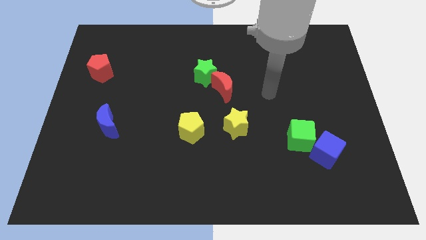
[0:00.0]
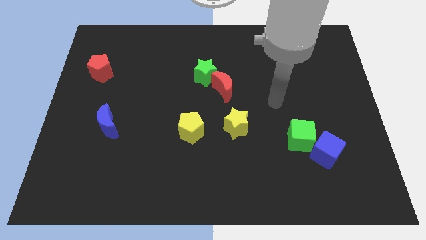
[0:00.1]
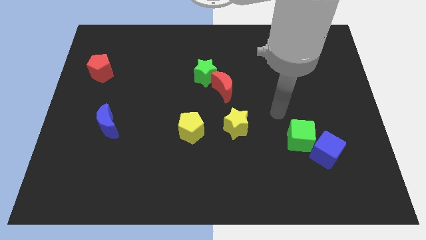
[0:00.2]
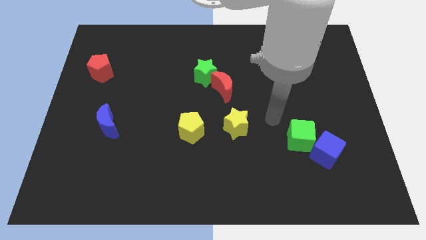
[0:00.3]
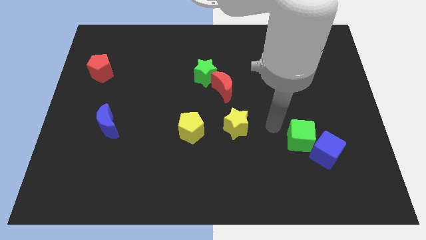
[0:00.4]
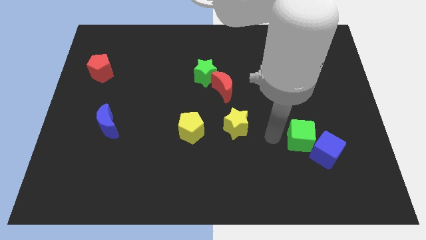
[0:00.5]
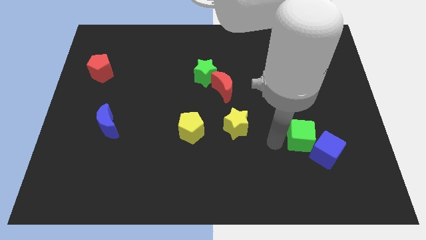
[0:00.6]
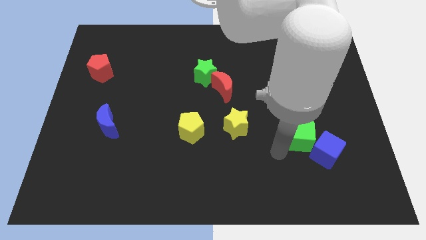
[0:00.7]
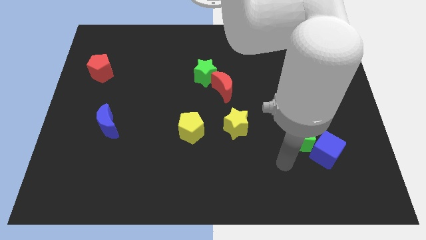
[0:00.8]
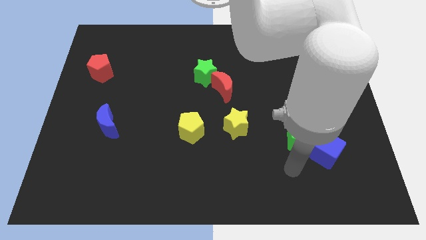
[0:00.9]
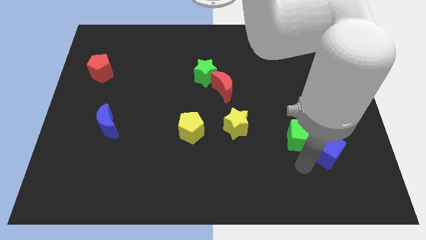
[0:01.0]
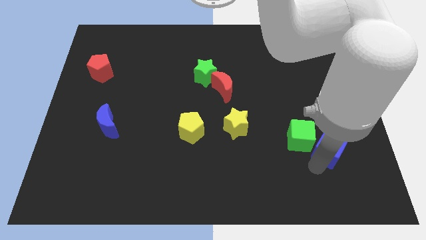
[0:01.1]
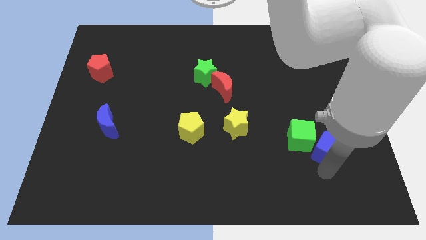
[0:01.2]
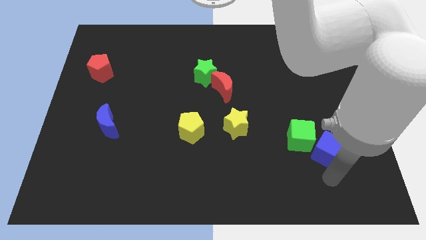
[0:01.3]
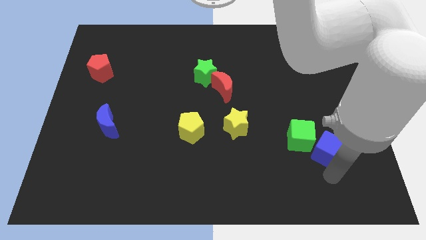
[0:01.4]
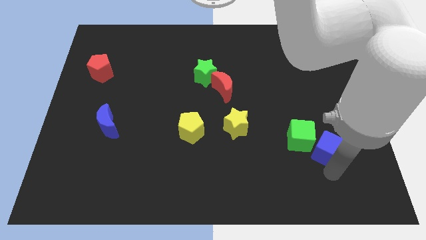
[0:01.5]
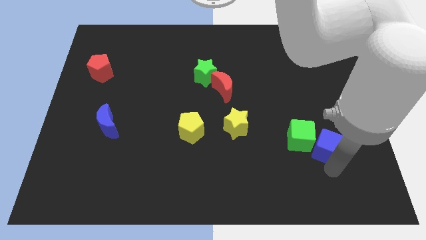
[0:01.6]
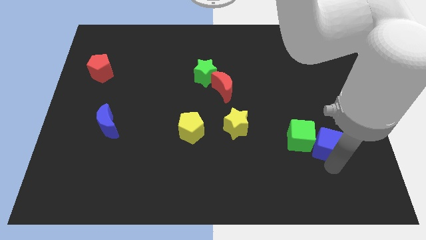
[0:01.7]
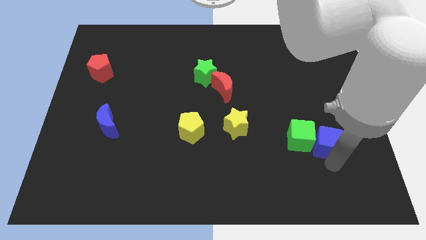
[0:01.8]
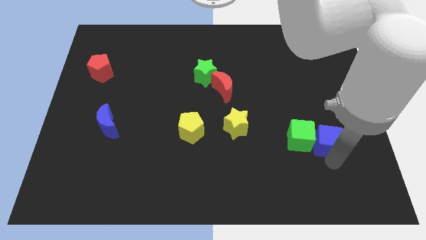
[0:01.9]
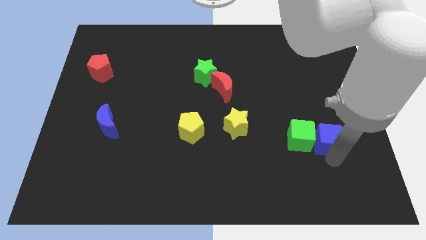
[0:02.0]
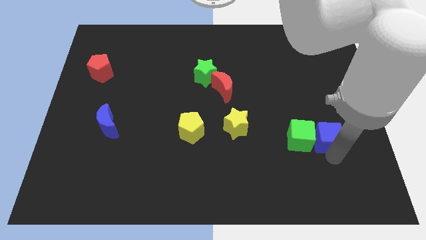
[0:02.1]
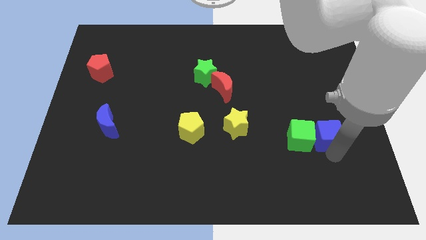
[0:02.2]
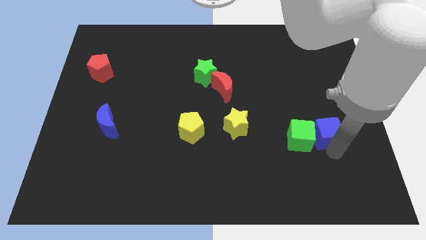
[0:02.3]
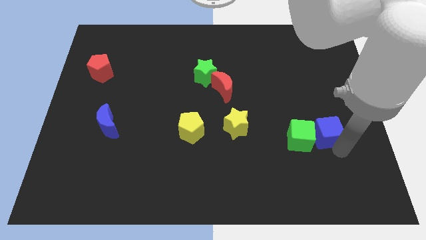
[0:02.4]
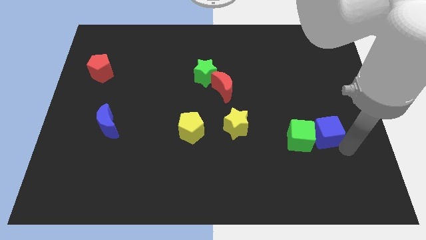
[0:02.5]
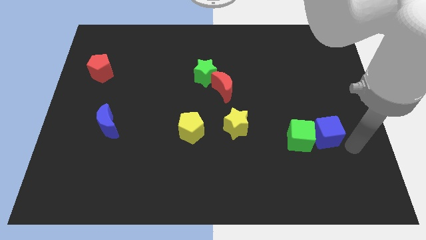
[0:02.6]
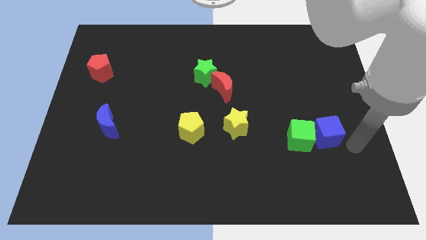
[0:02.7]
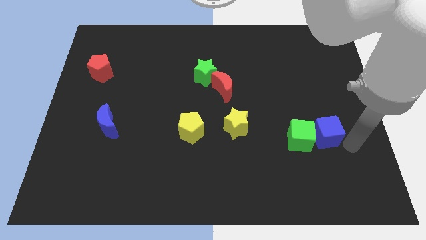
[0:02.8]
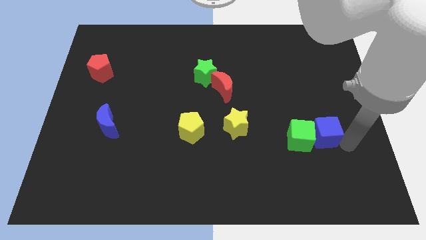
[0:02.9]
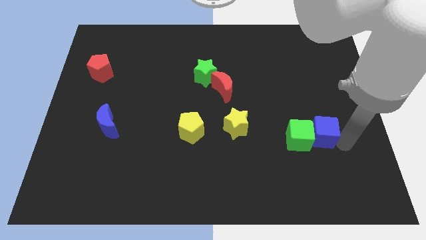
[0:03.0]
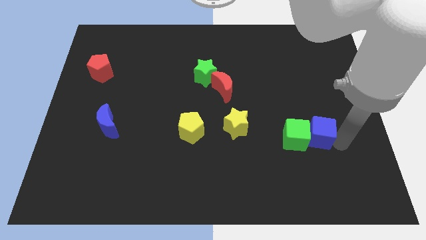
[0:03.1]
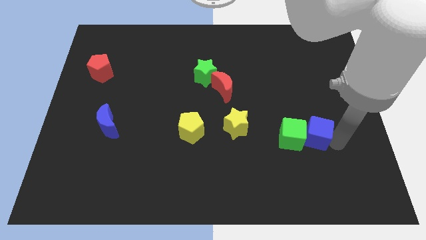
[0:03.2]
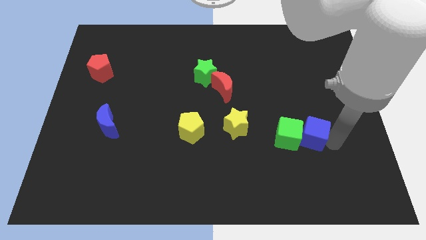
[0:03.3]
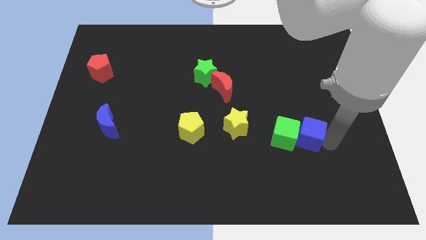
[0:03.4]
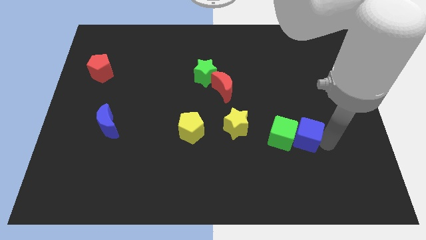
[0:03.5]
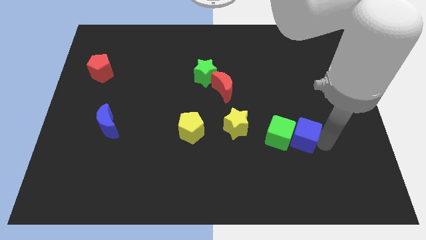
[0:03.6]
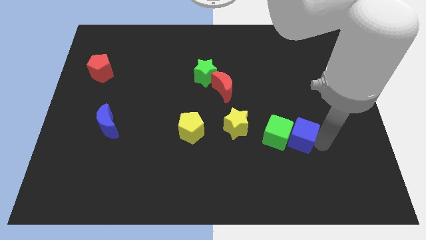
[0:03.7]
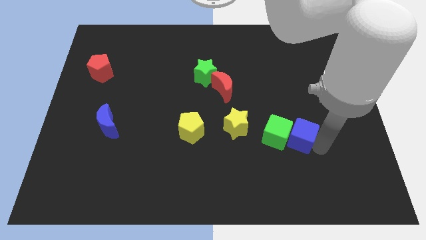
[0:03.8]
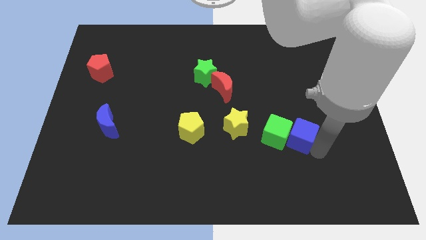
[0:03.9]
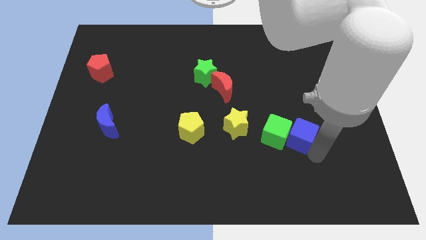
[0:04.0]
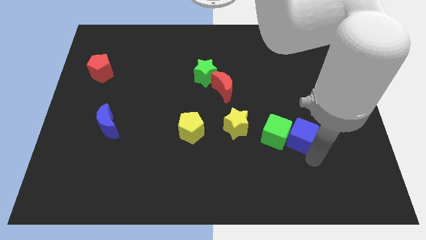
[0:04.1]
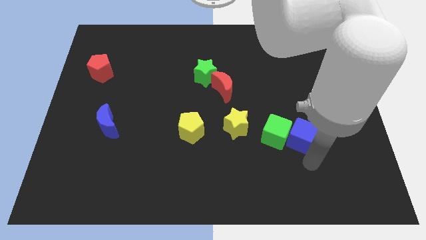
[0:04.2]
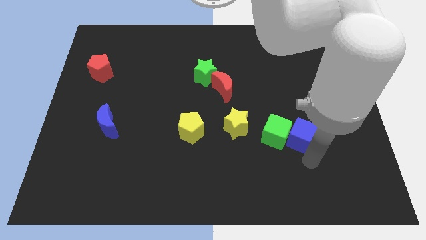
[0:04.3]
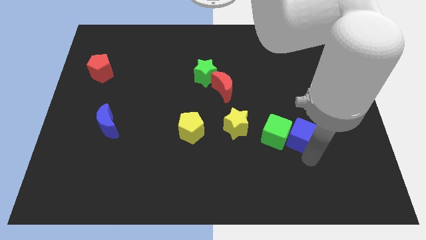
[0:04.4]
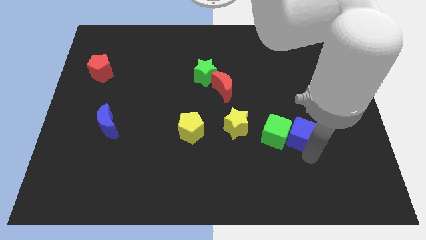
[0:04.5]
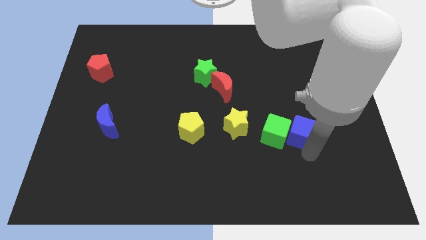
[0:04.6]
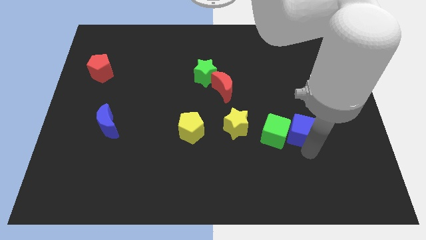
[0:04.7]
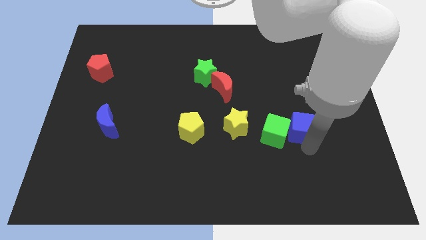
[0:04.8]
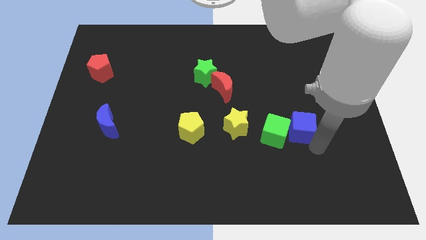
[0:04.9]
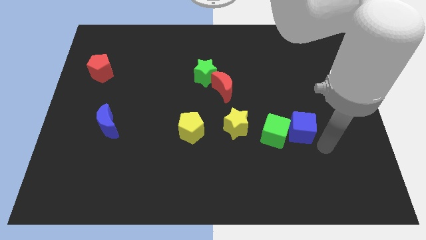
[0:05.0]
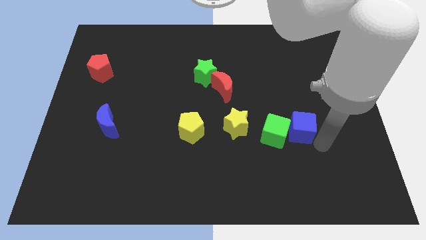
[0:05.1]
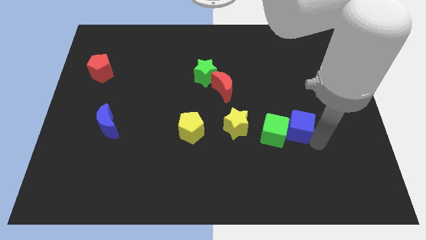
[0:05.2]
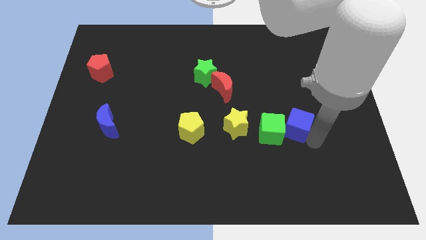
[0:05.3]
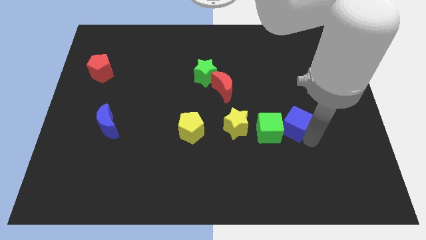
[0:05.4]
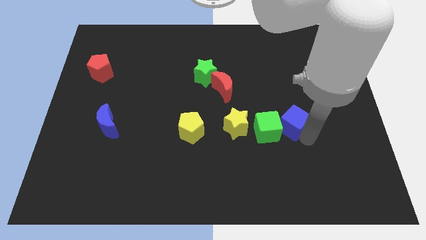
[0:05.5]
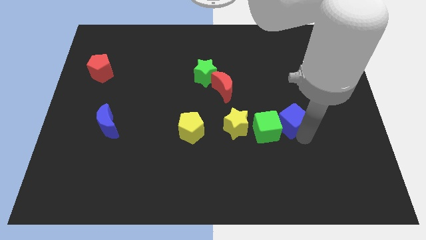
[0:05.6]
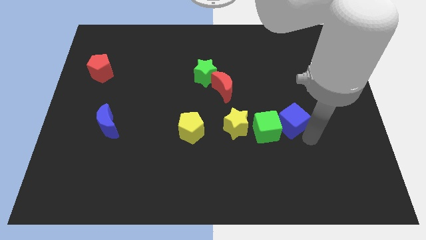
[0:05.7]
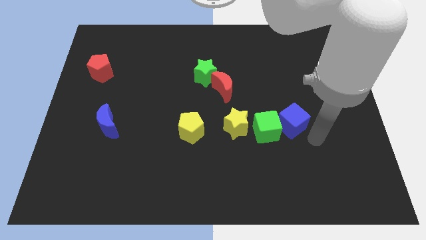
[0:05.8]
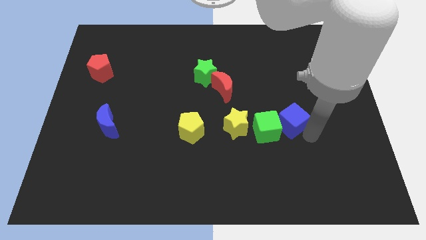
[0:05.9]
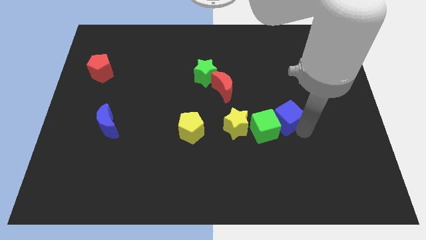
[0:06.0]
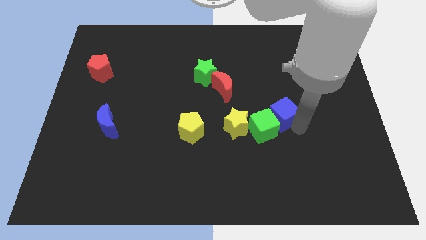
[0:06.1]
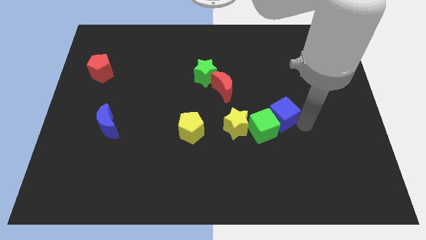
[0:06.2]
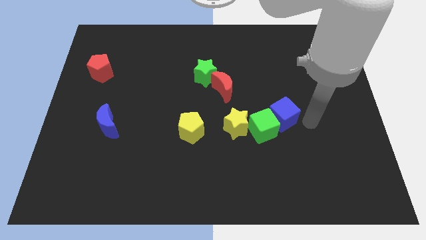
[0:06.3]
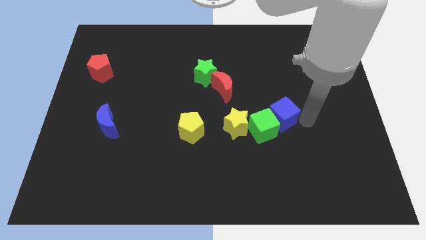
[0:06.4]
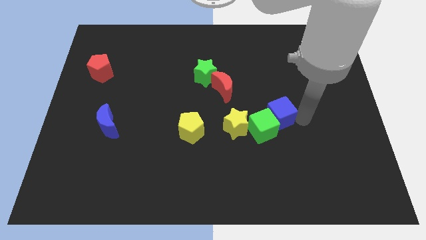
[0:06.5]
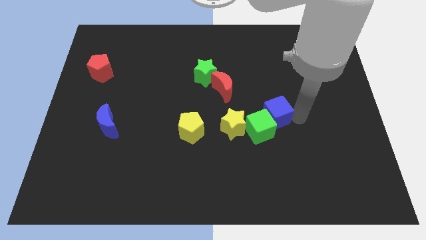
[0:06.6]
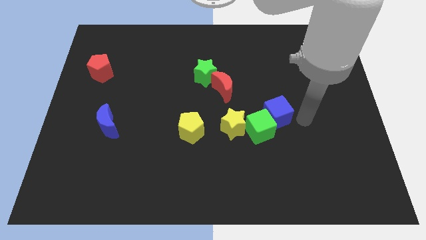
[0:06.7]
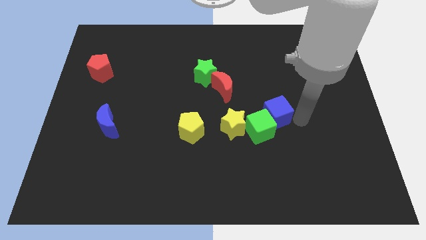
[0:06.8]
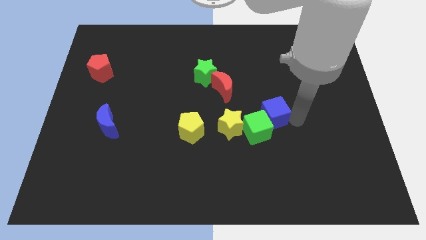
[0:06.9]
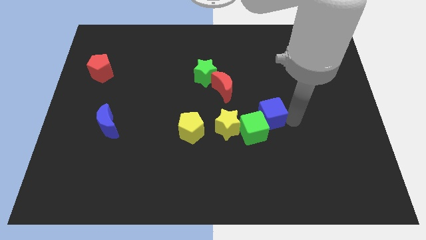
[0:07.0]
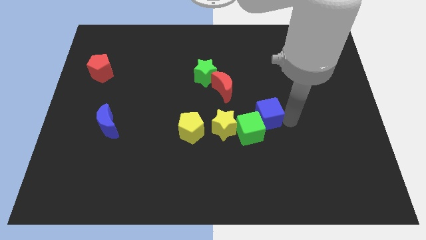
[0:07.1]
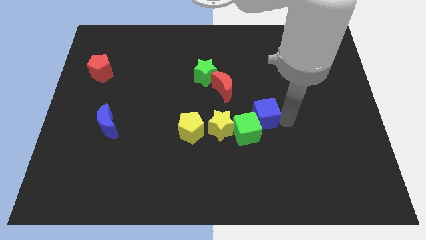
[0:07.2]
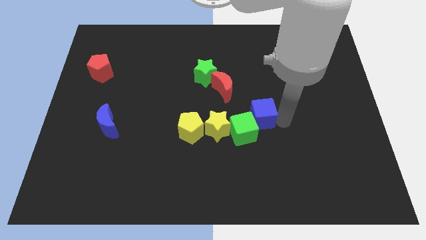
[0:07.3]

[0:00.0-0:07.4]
put the blue cube to the middle of the board
